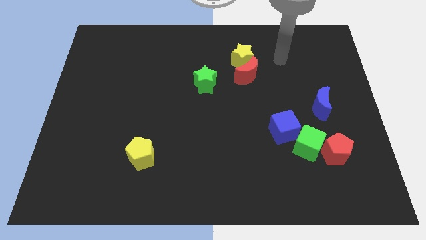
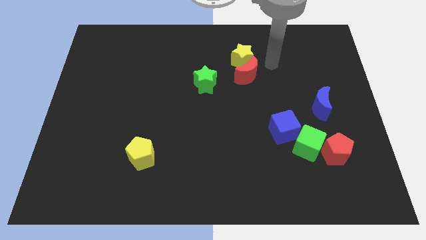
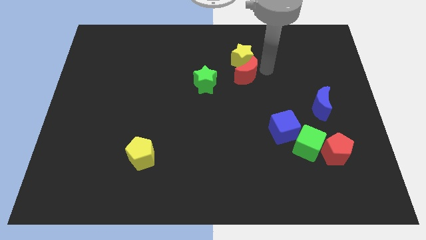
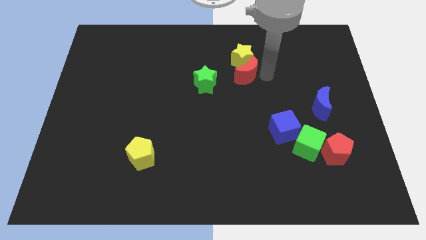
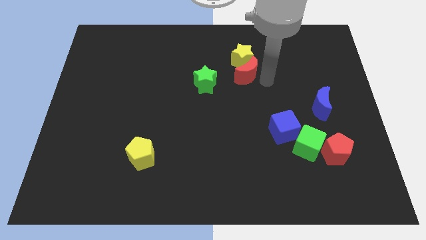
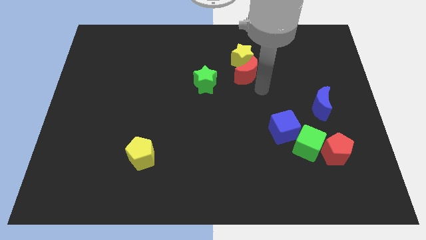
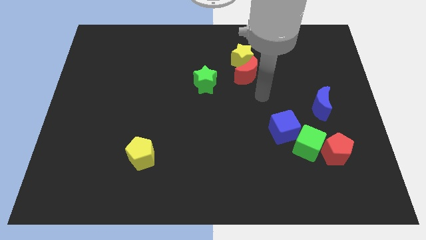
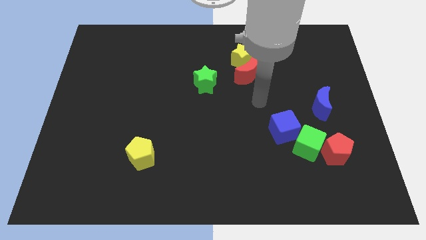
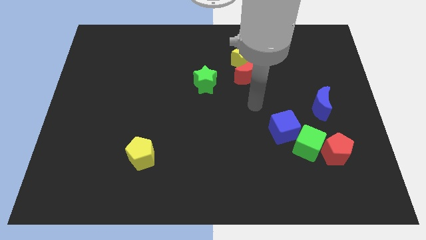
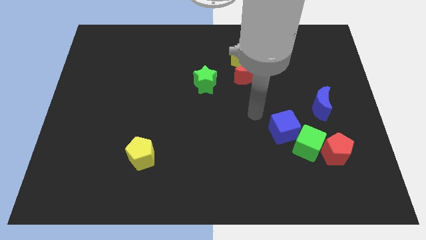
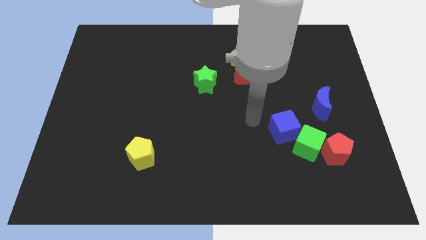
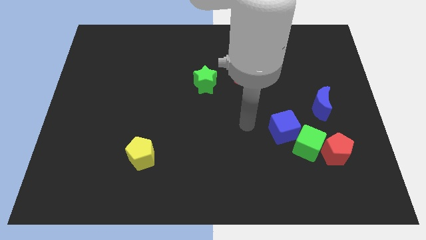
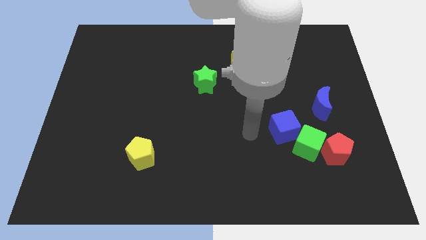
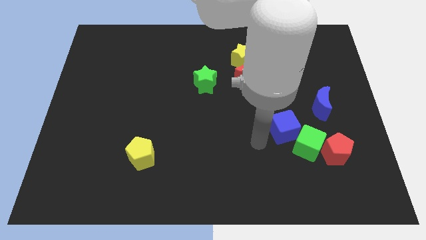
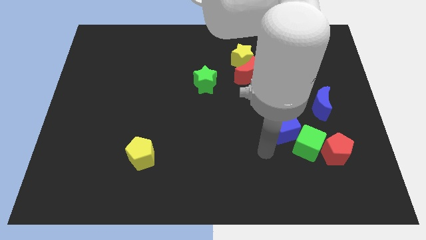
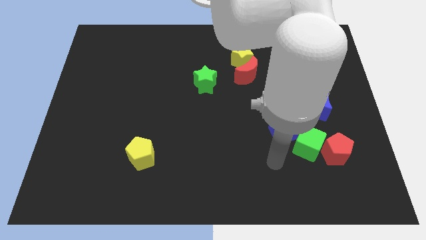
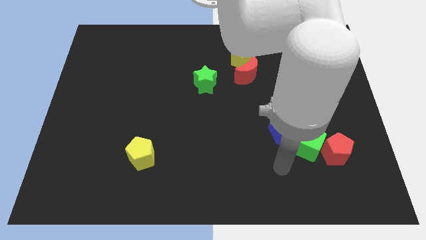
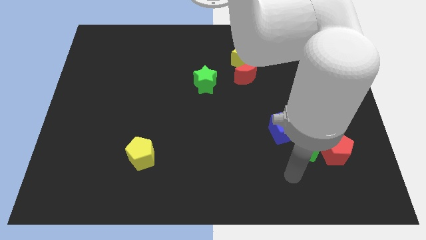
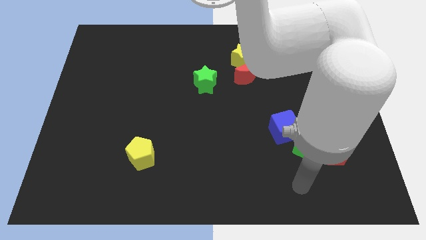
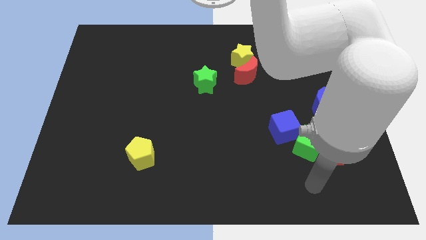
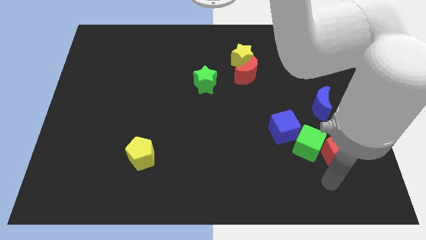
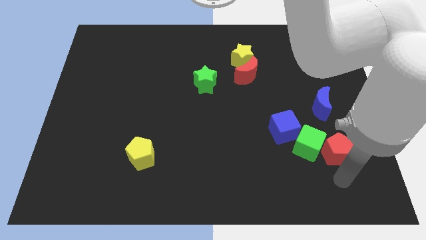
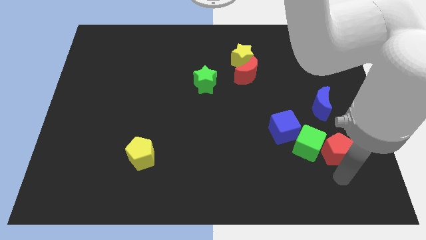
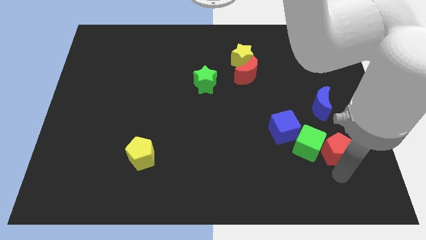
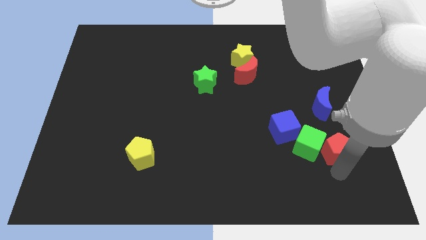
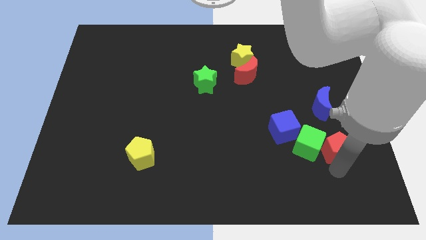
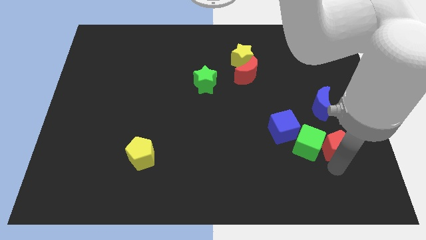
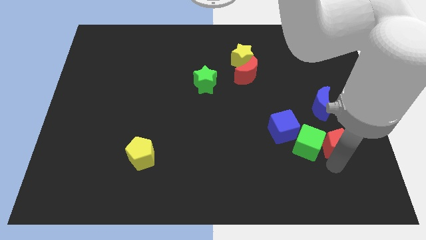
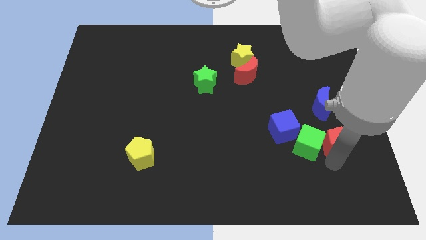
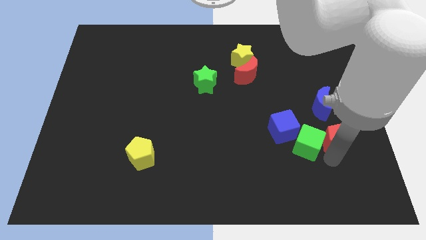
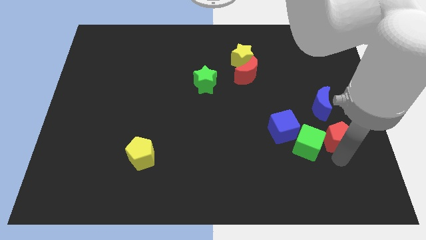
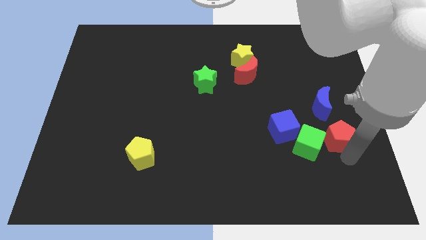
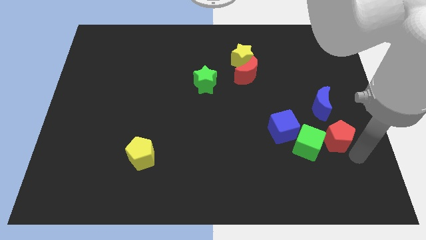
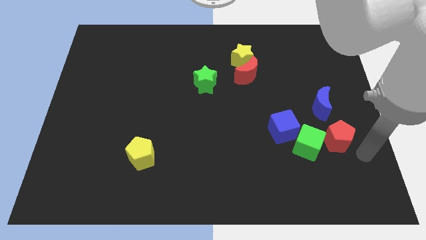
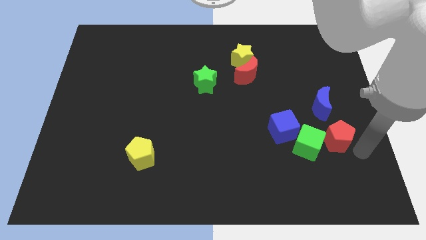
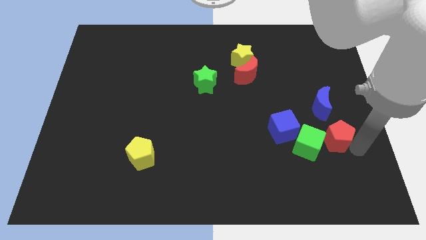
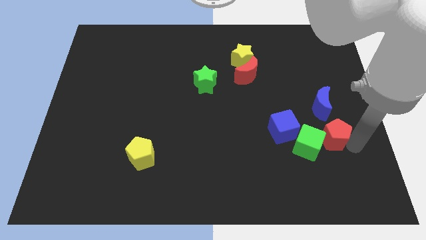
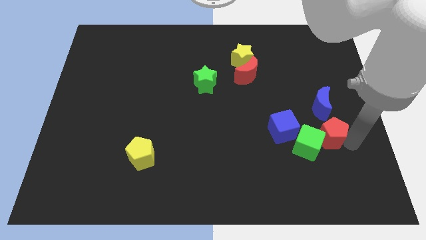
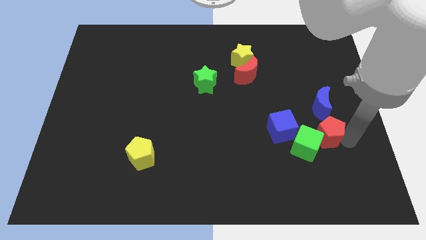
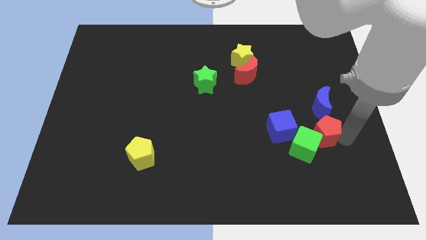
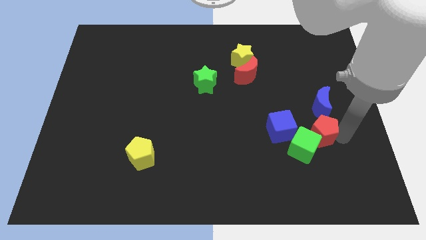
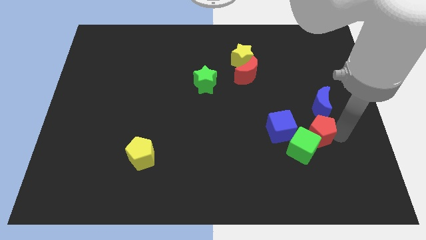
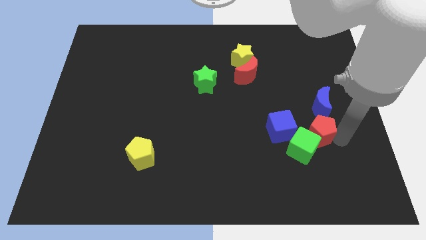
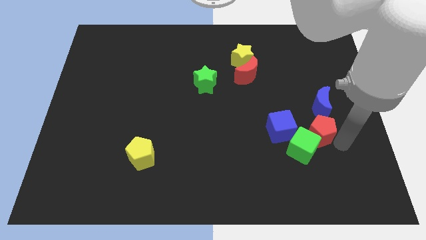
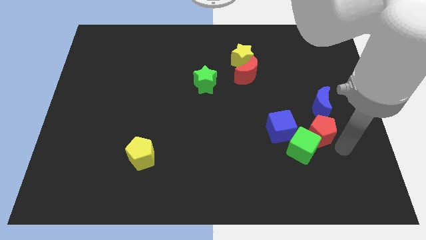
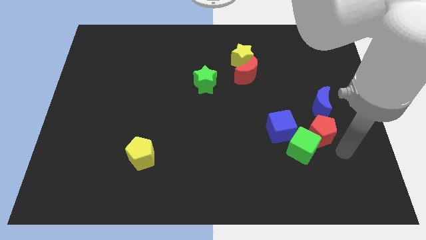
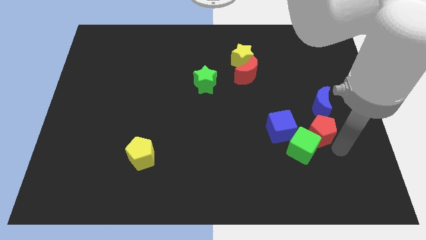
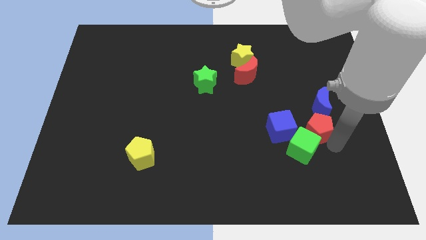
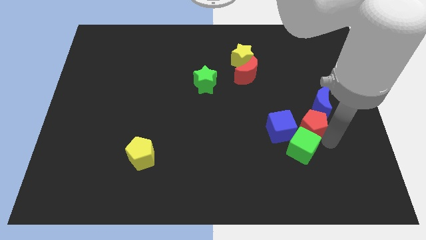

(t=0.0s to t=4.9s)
move the red pentagon somewhat upwards and left

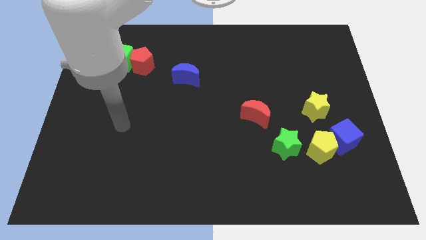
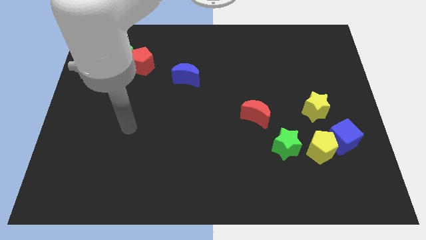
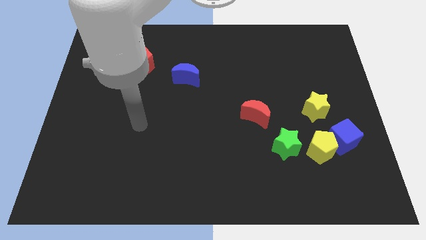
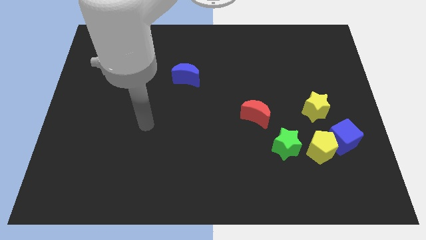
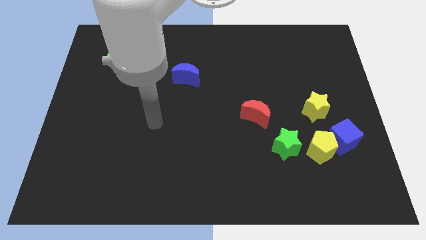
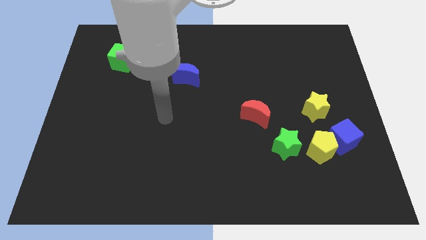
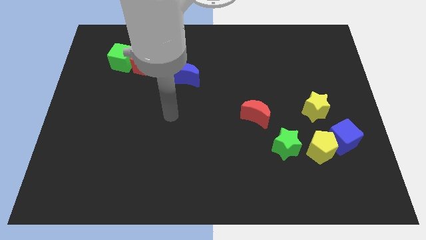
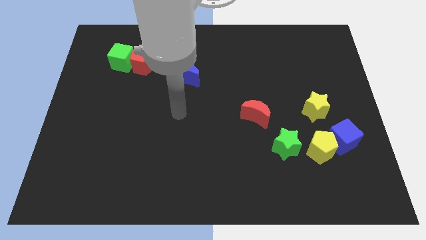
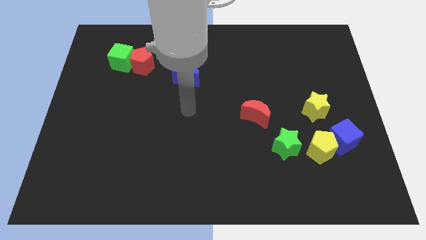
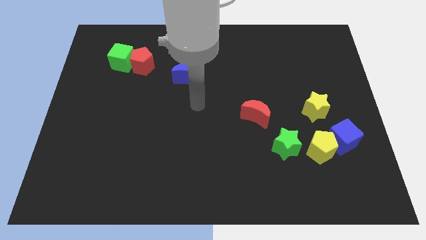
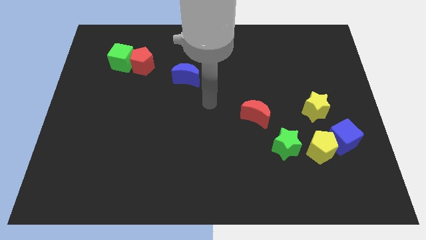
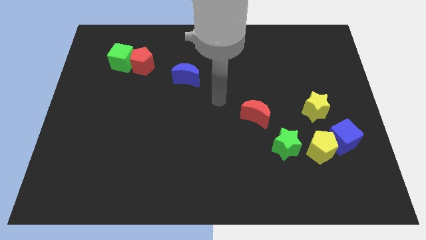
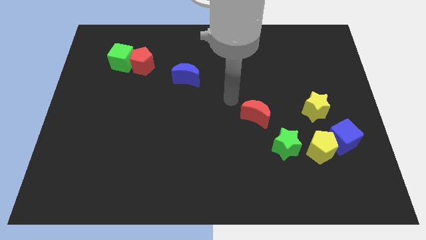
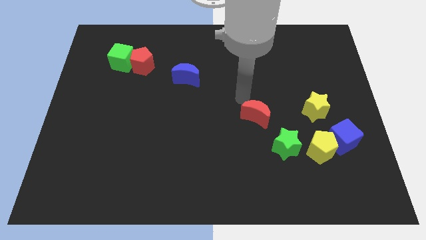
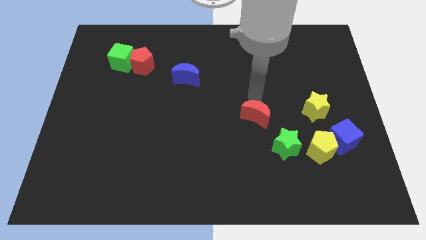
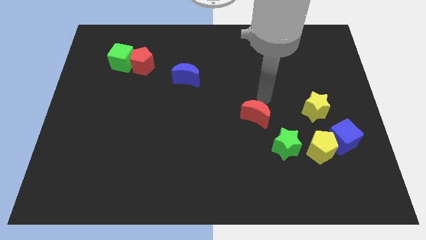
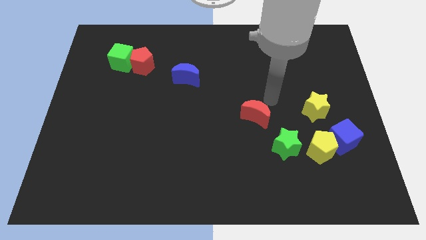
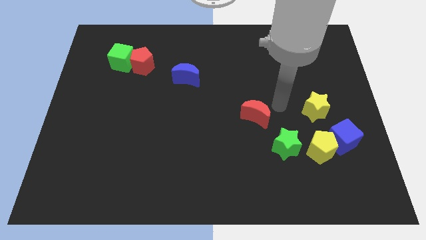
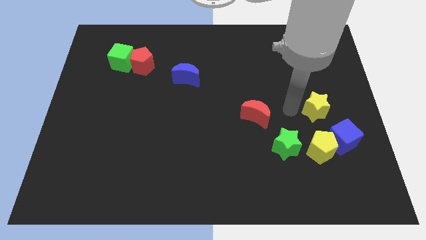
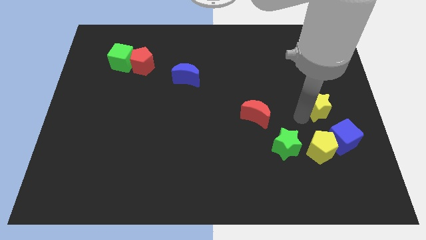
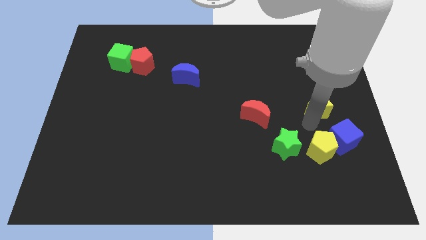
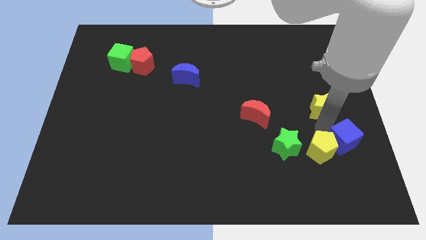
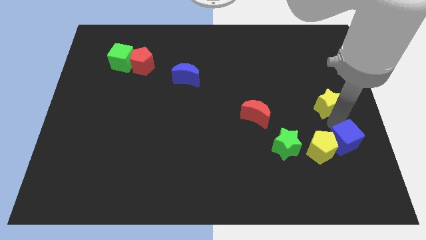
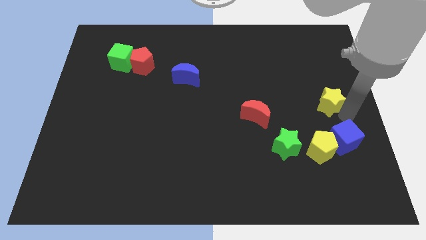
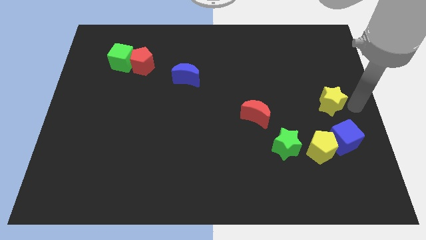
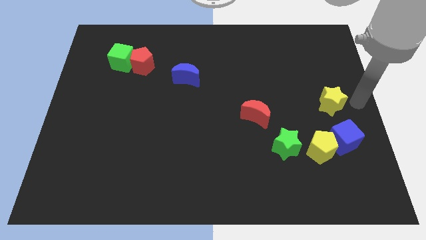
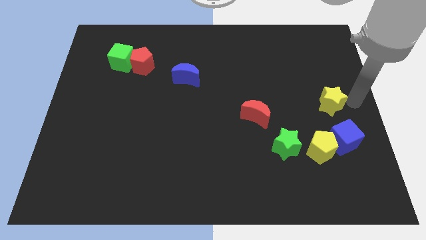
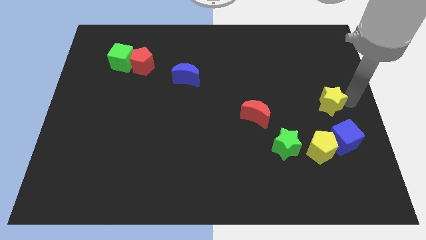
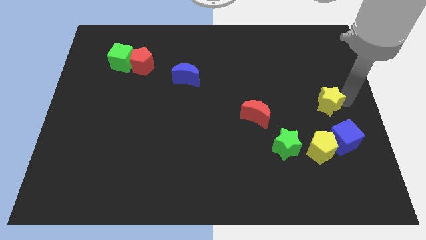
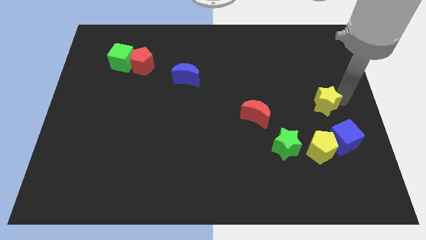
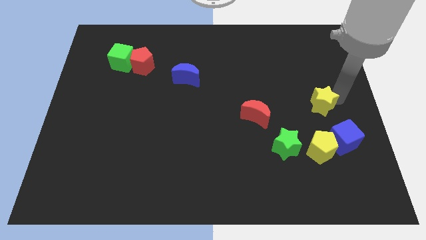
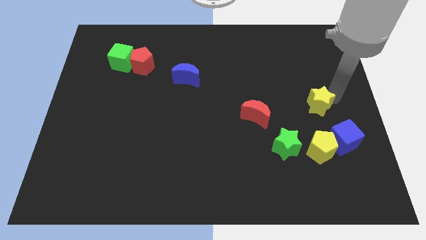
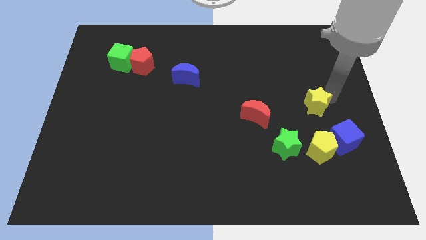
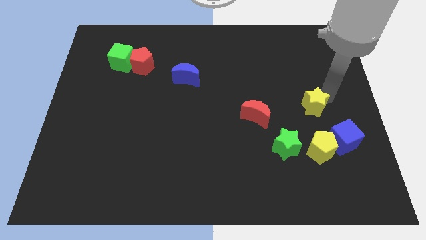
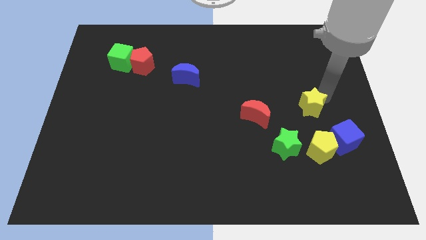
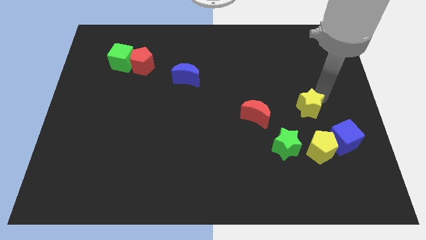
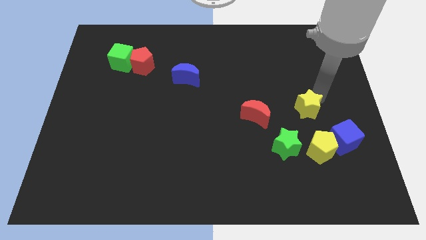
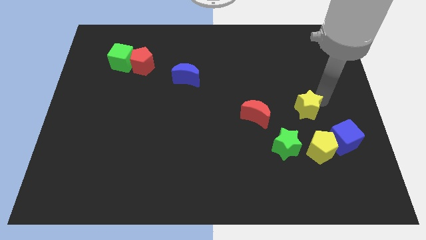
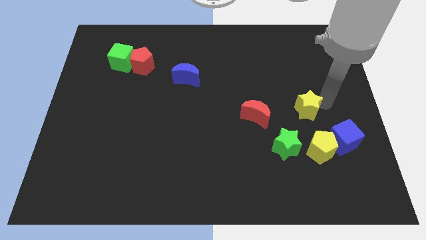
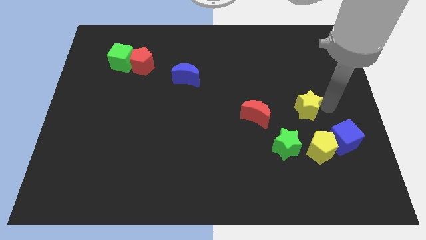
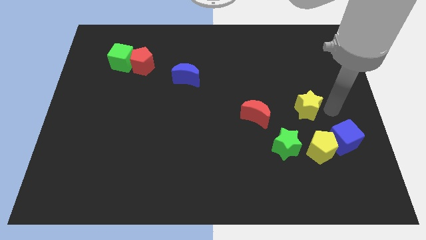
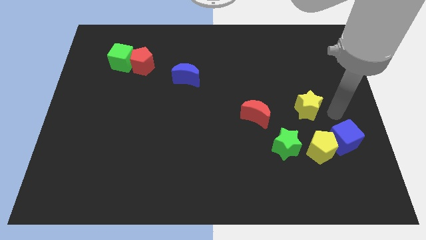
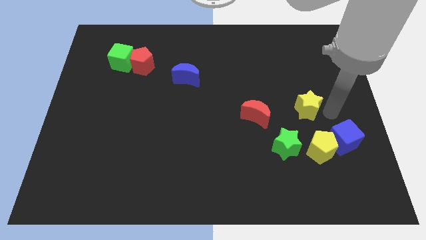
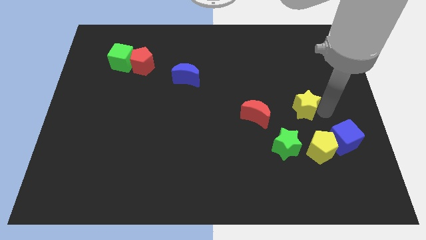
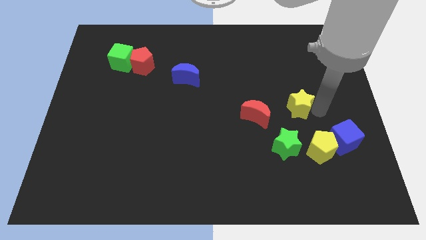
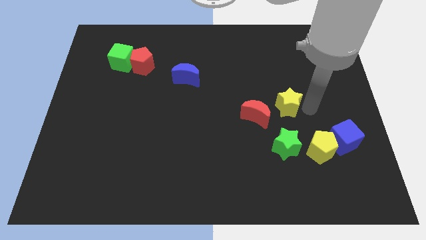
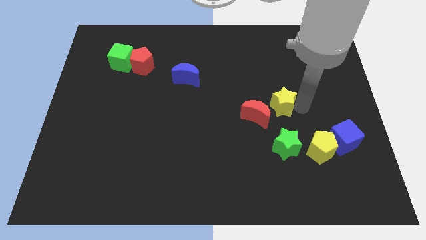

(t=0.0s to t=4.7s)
slightly push the yellow star to the left
